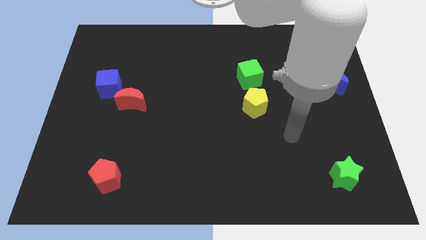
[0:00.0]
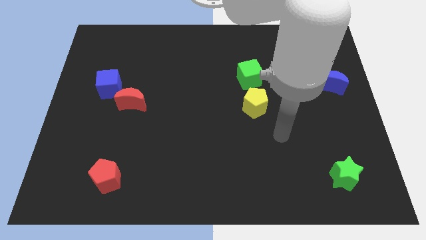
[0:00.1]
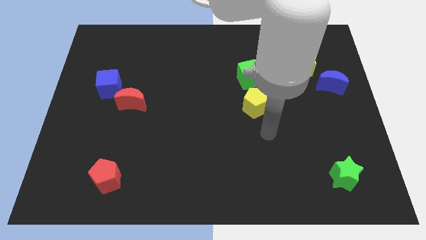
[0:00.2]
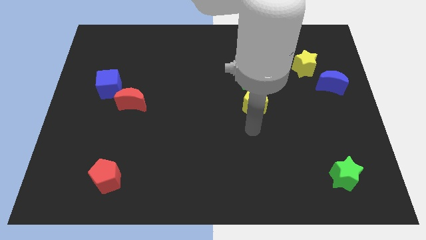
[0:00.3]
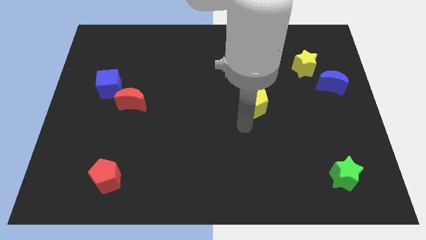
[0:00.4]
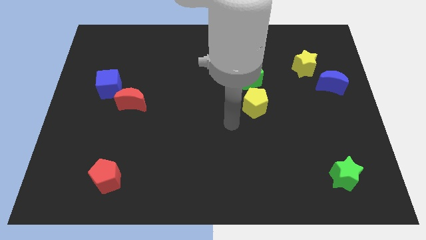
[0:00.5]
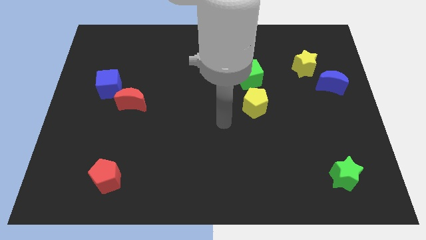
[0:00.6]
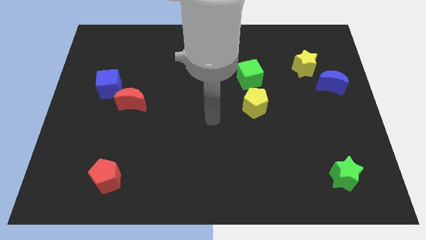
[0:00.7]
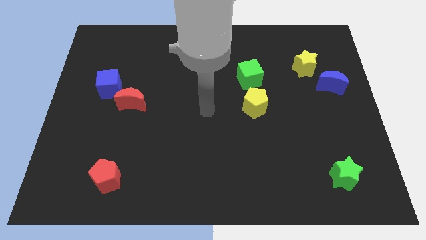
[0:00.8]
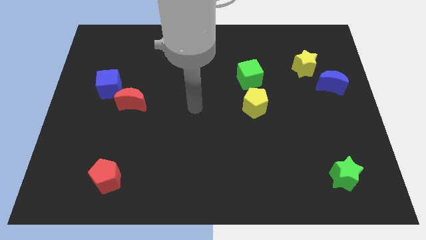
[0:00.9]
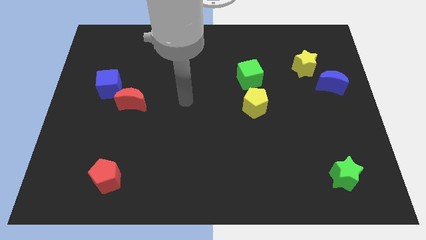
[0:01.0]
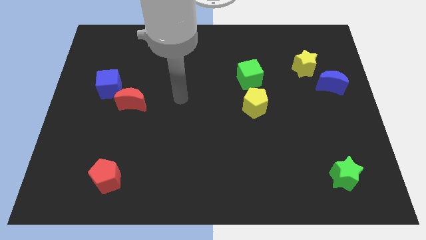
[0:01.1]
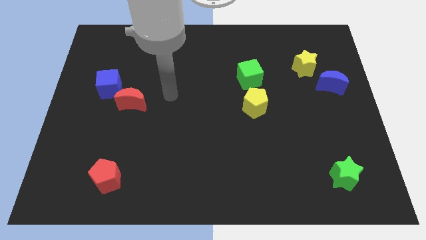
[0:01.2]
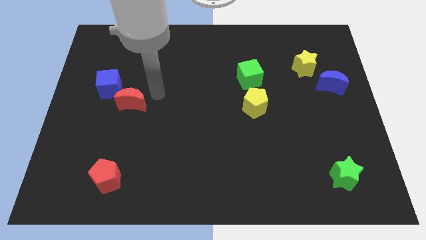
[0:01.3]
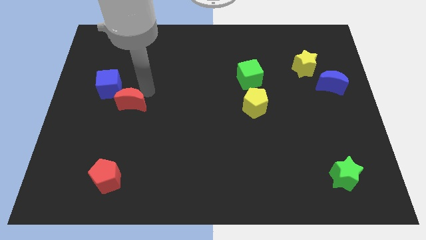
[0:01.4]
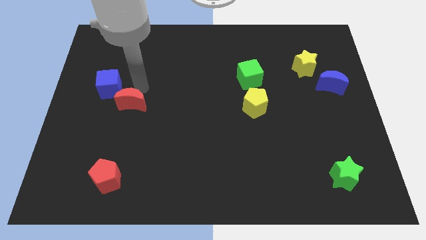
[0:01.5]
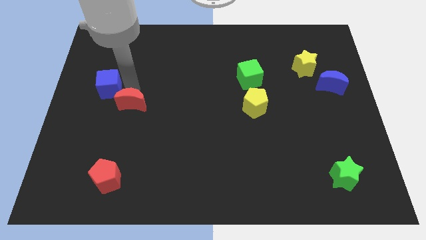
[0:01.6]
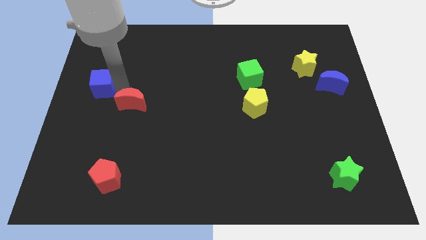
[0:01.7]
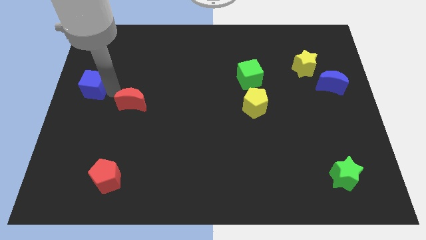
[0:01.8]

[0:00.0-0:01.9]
pull the red moon apart from the blue cube

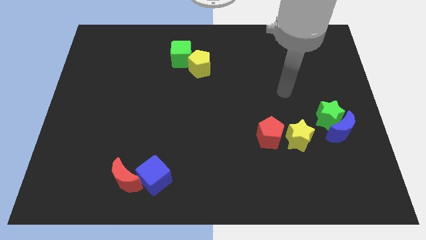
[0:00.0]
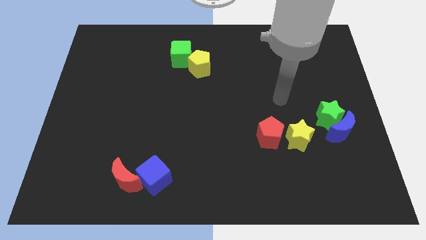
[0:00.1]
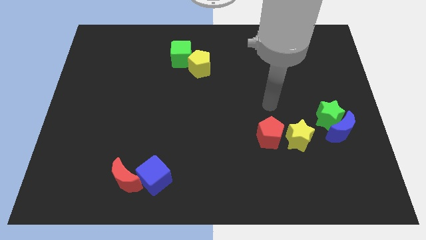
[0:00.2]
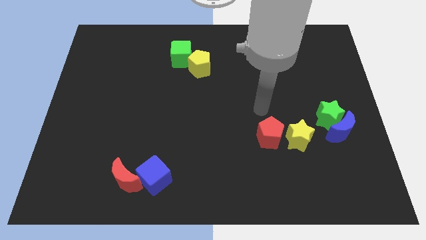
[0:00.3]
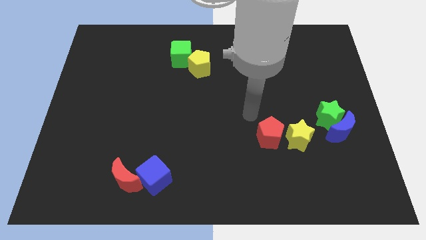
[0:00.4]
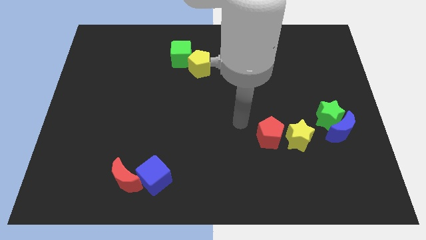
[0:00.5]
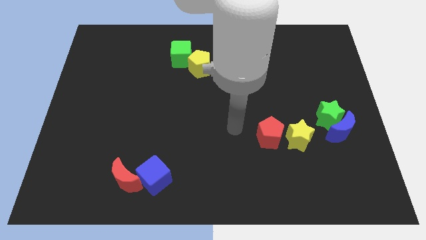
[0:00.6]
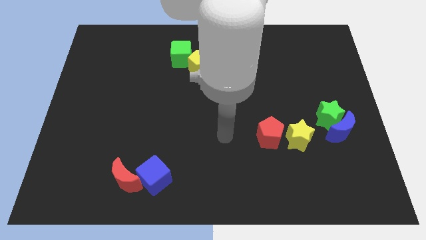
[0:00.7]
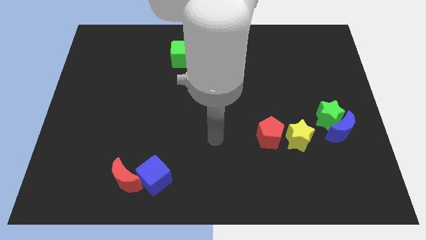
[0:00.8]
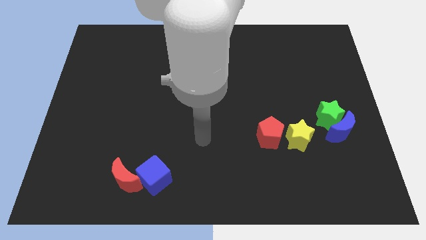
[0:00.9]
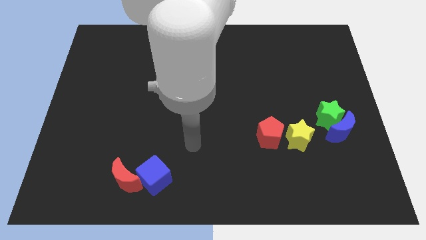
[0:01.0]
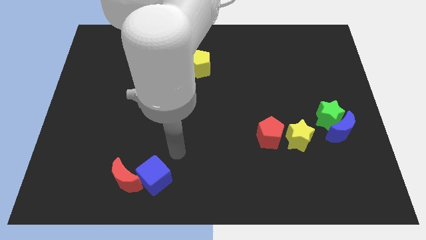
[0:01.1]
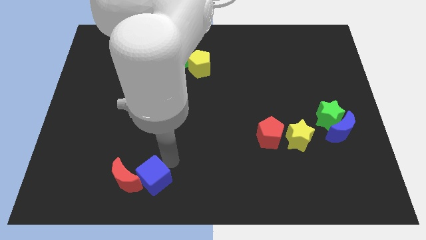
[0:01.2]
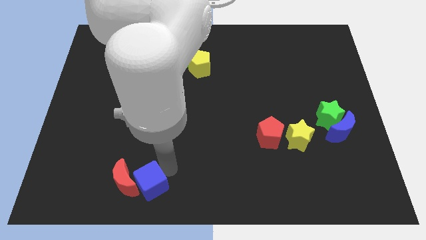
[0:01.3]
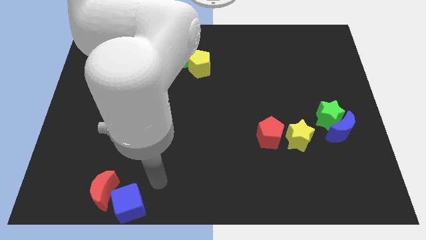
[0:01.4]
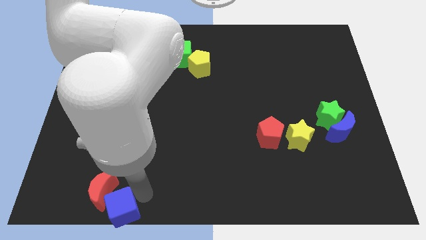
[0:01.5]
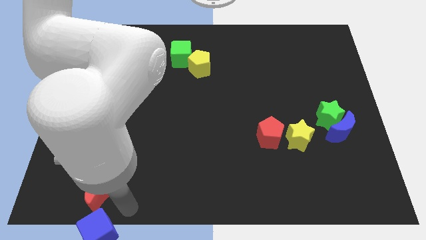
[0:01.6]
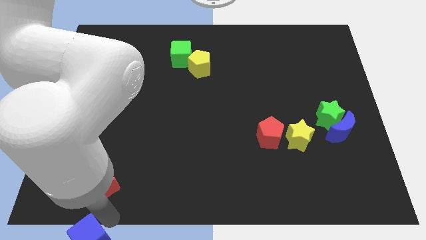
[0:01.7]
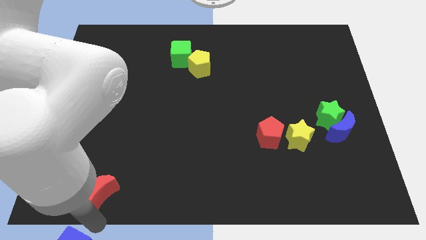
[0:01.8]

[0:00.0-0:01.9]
move the red moon away from the blue cube

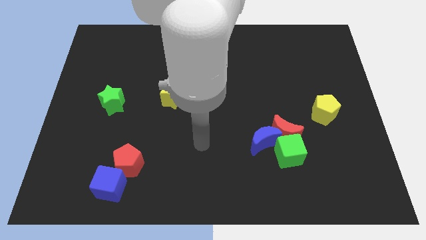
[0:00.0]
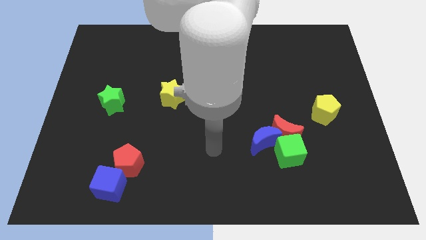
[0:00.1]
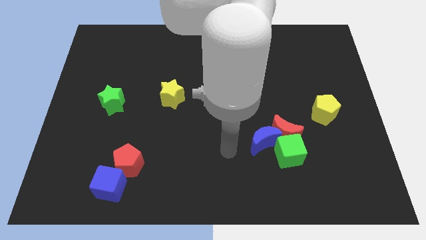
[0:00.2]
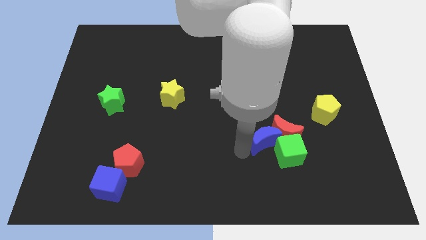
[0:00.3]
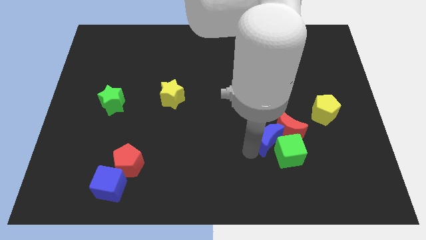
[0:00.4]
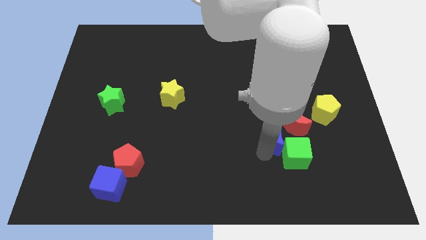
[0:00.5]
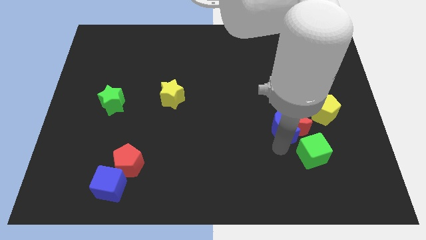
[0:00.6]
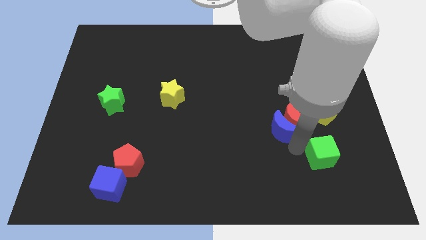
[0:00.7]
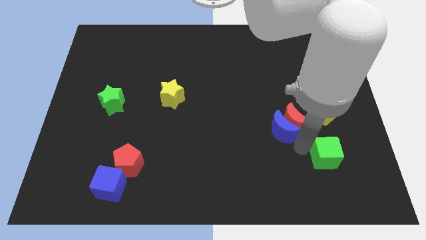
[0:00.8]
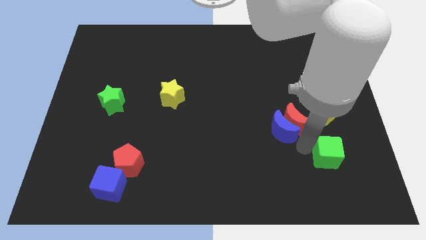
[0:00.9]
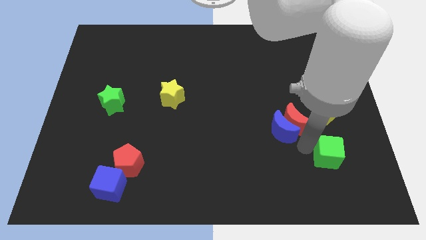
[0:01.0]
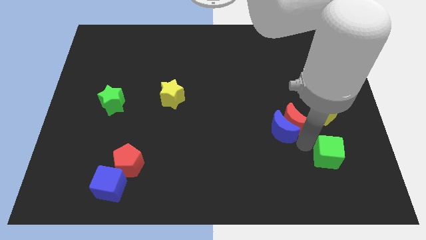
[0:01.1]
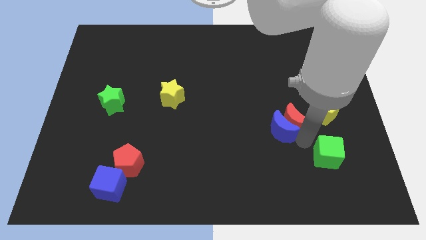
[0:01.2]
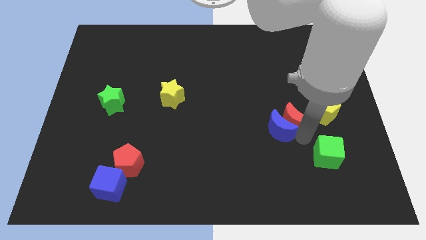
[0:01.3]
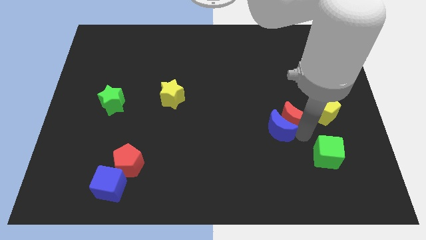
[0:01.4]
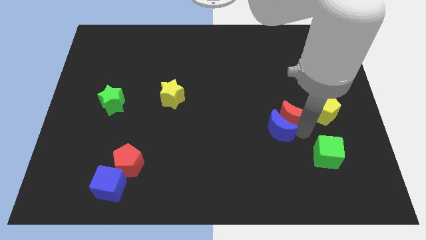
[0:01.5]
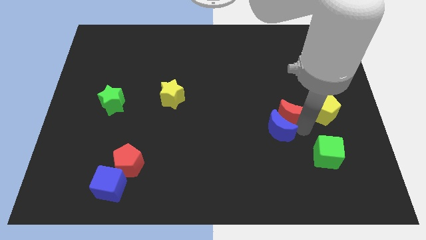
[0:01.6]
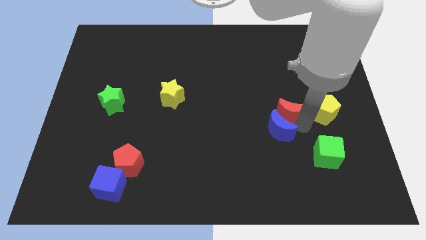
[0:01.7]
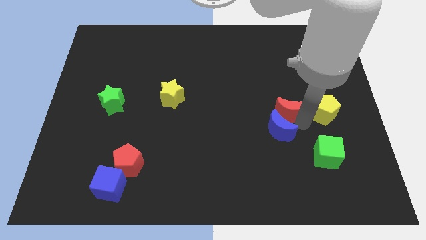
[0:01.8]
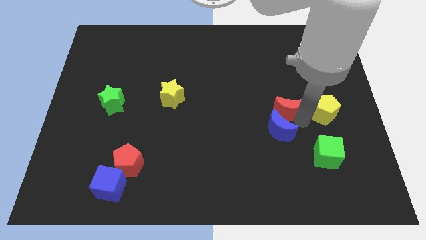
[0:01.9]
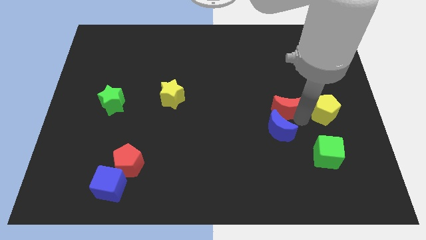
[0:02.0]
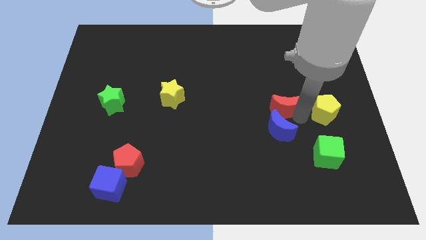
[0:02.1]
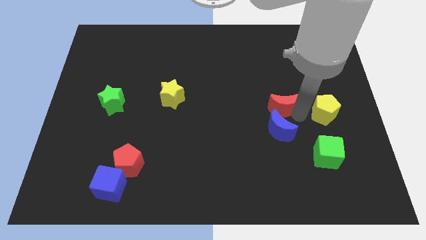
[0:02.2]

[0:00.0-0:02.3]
move the red moon away from the green cube and blue moon

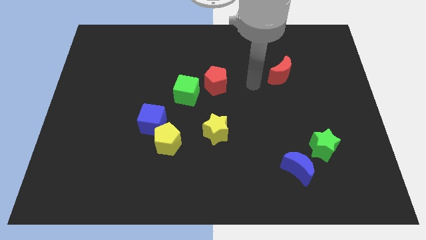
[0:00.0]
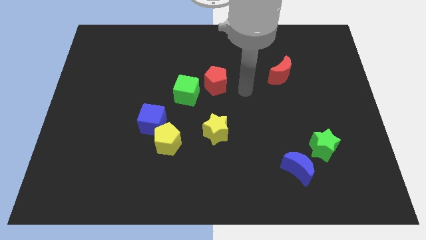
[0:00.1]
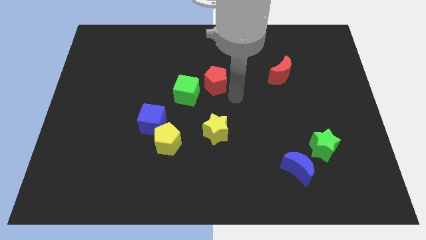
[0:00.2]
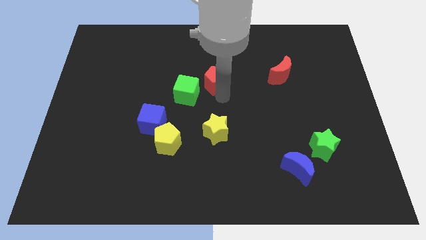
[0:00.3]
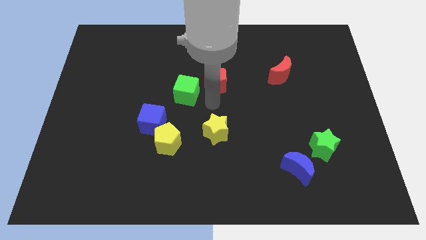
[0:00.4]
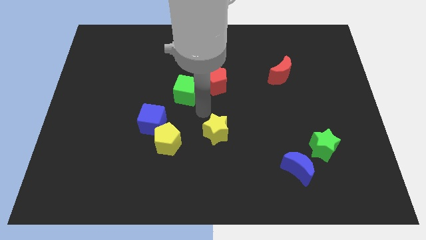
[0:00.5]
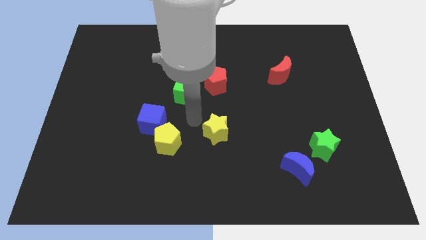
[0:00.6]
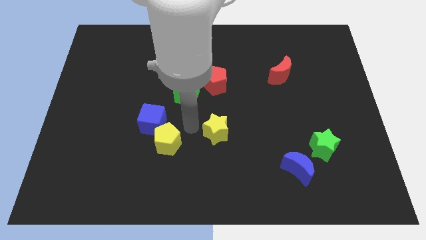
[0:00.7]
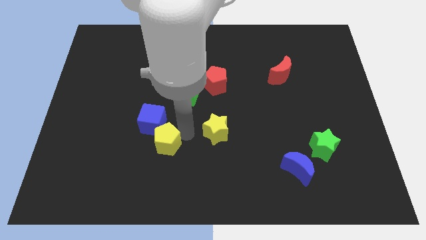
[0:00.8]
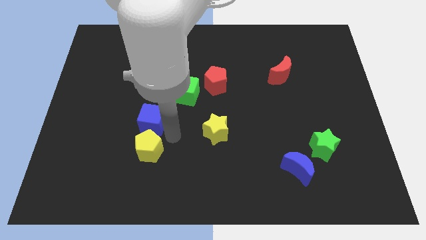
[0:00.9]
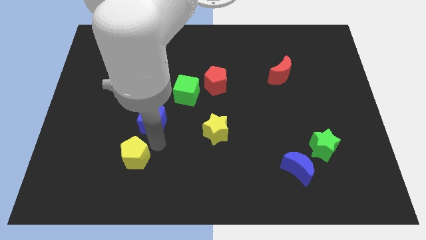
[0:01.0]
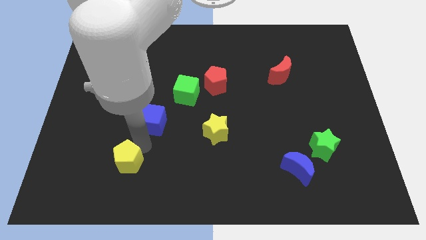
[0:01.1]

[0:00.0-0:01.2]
separate the blue cube from the yellow pentagon

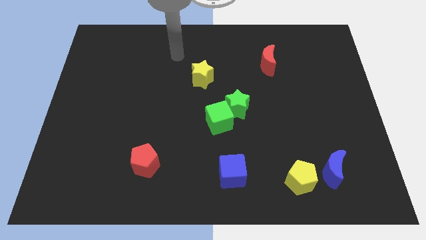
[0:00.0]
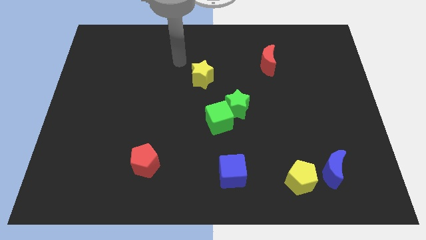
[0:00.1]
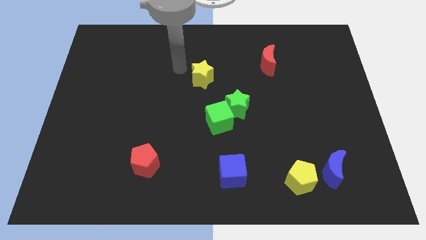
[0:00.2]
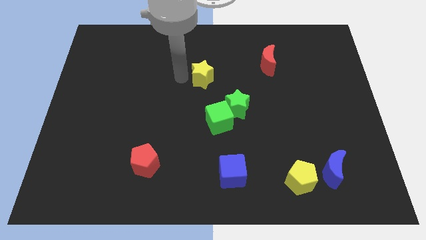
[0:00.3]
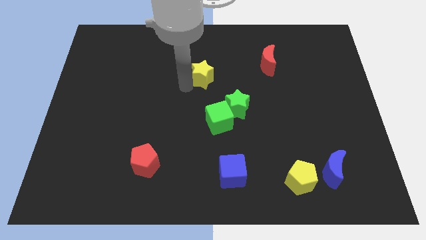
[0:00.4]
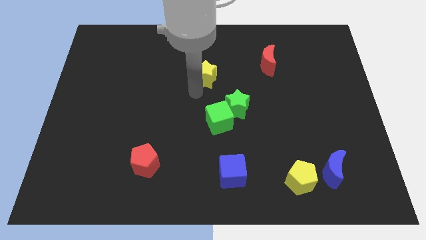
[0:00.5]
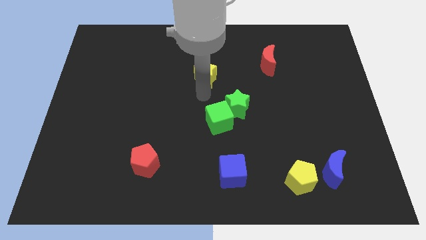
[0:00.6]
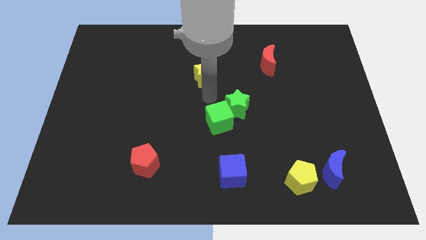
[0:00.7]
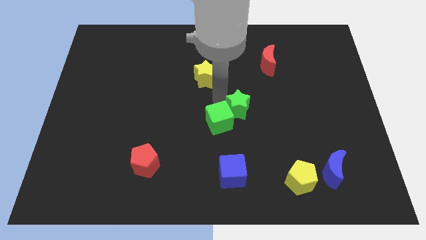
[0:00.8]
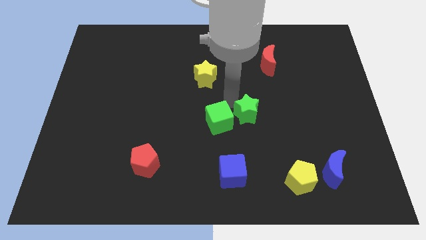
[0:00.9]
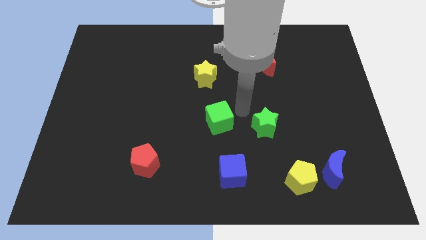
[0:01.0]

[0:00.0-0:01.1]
separate the green cube from the green star

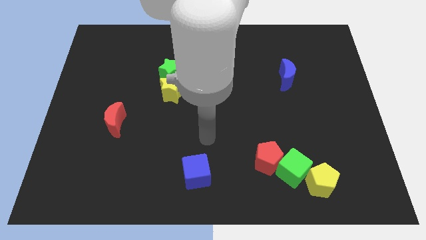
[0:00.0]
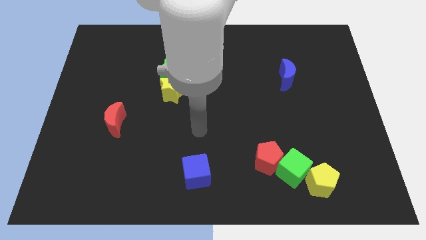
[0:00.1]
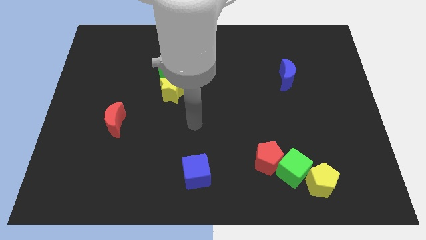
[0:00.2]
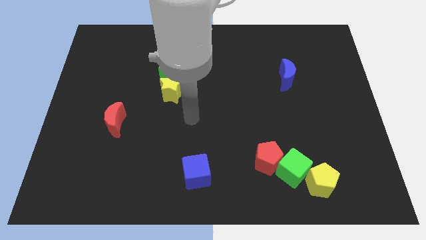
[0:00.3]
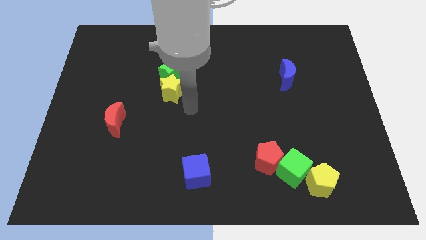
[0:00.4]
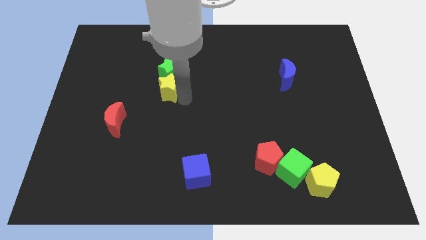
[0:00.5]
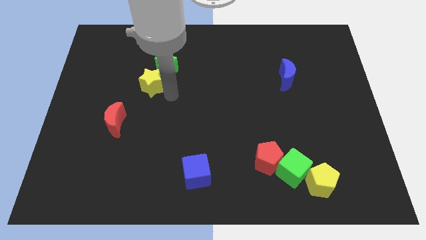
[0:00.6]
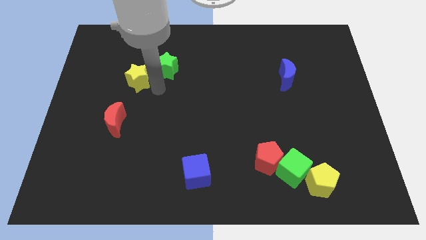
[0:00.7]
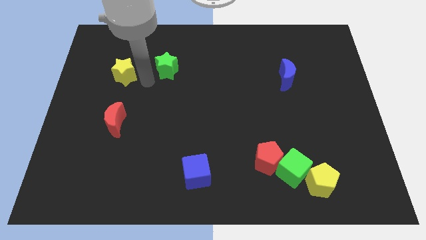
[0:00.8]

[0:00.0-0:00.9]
pull the green star apart from the yellow star
